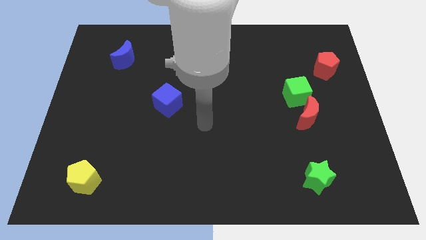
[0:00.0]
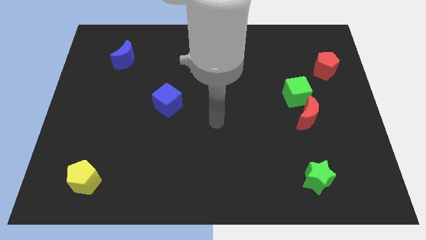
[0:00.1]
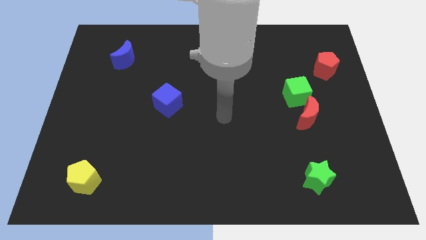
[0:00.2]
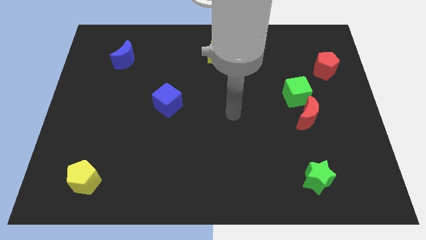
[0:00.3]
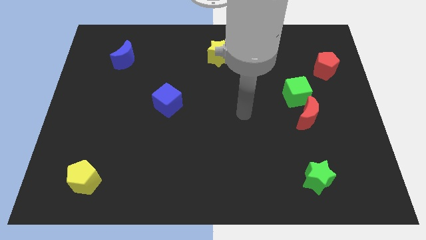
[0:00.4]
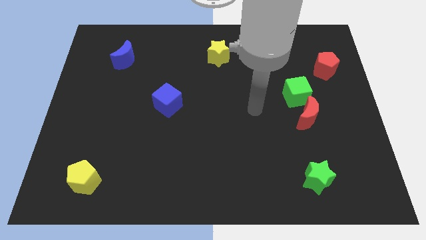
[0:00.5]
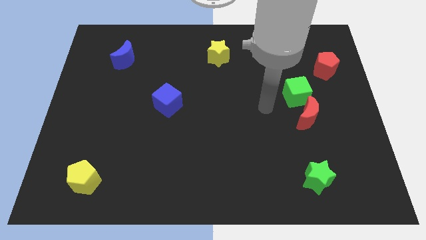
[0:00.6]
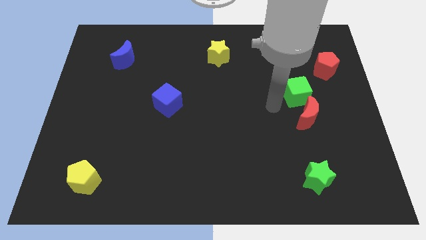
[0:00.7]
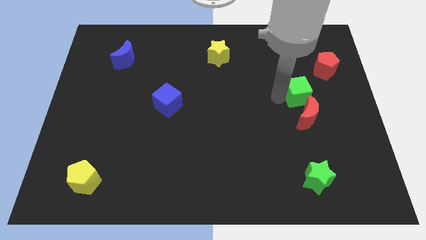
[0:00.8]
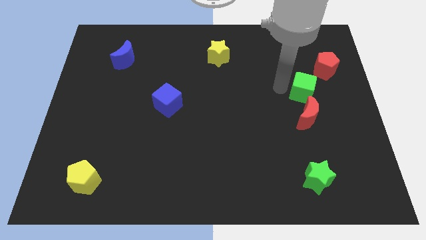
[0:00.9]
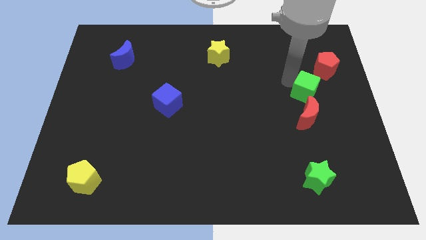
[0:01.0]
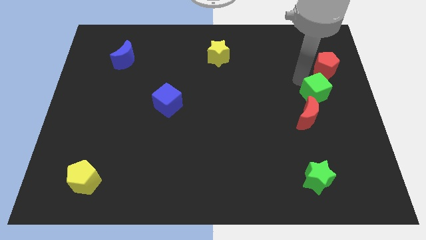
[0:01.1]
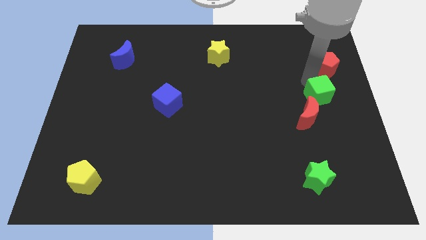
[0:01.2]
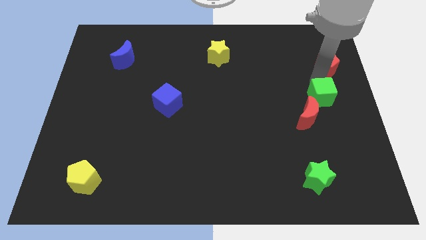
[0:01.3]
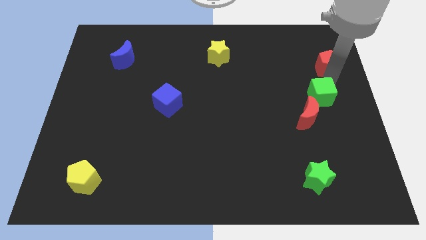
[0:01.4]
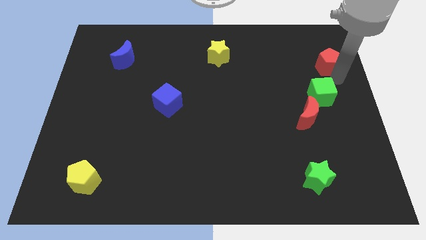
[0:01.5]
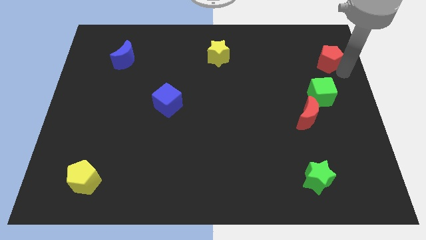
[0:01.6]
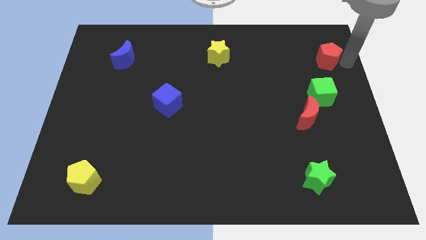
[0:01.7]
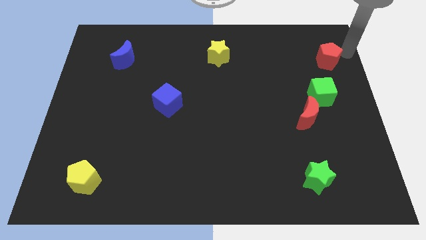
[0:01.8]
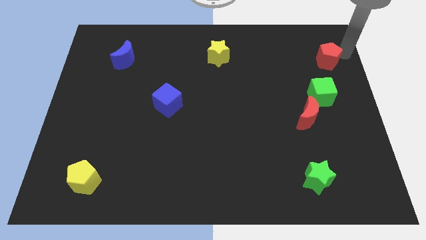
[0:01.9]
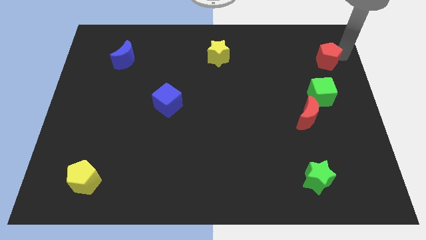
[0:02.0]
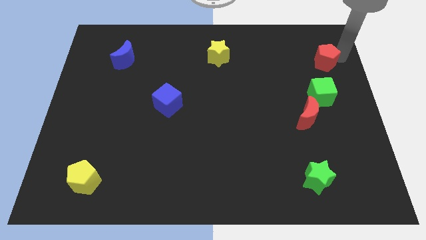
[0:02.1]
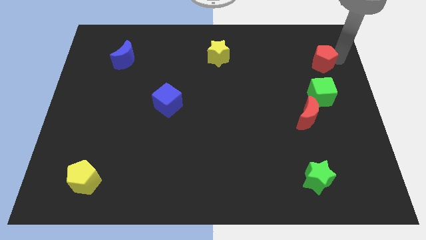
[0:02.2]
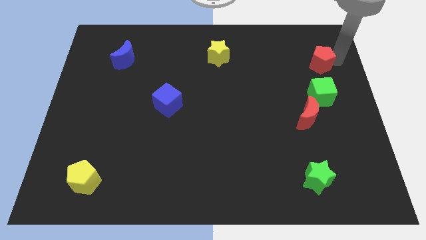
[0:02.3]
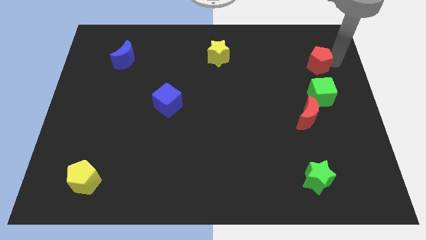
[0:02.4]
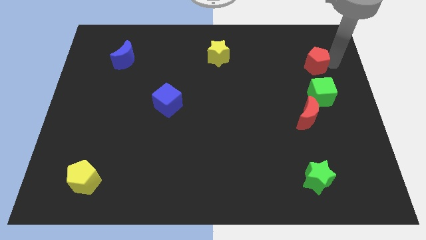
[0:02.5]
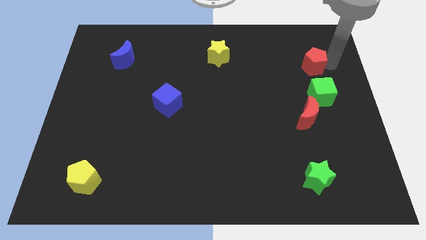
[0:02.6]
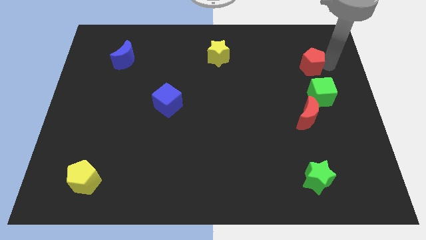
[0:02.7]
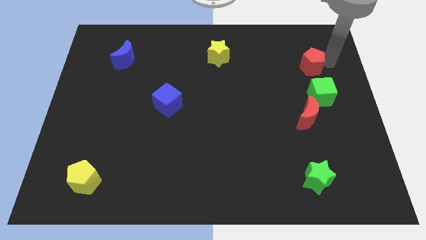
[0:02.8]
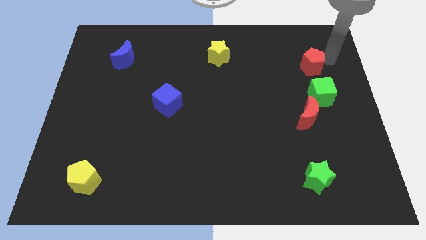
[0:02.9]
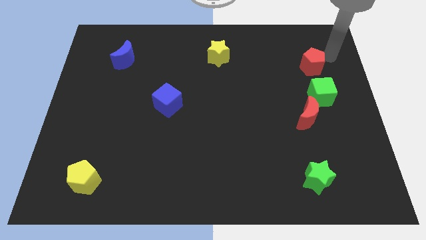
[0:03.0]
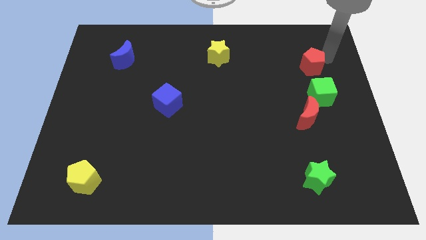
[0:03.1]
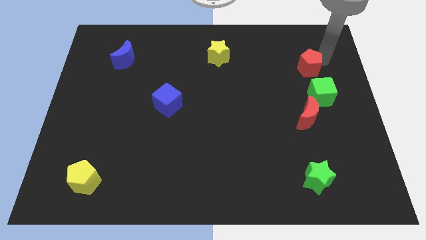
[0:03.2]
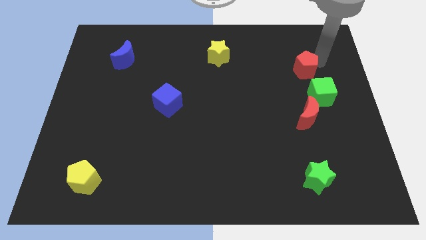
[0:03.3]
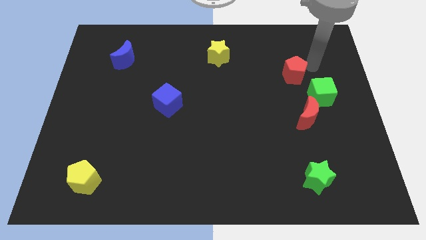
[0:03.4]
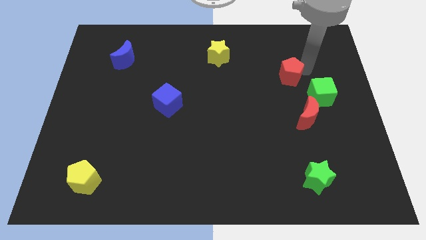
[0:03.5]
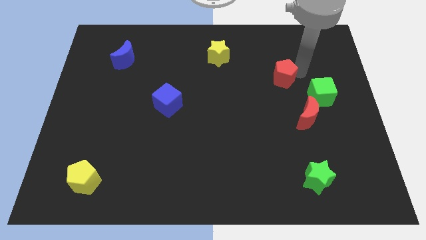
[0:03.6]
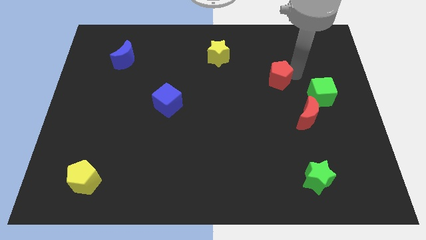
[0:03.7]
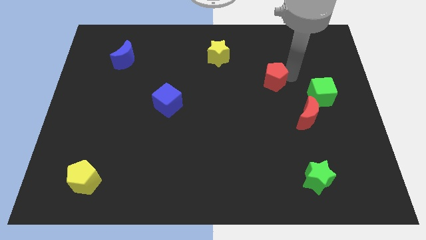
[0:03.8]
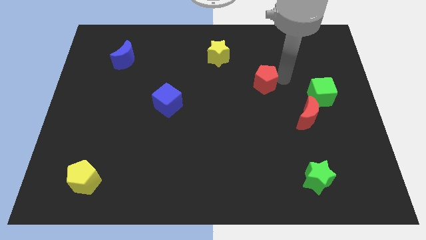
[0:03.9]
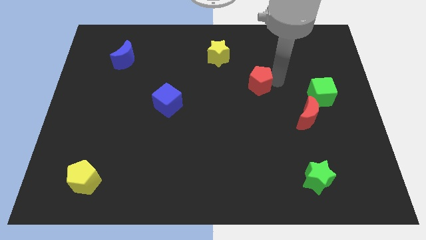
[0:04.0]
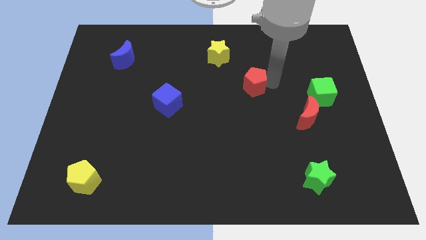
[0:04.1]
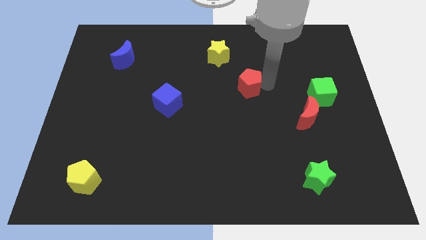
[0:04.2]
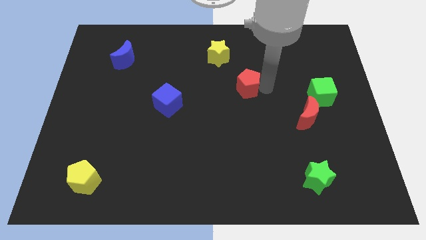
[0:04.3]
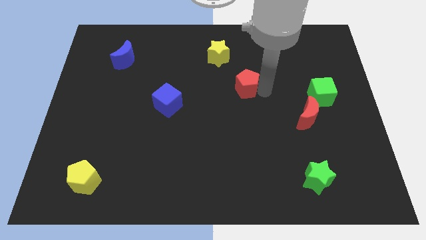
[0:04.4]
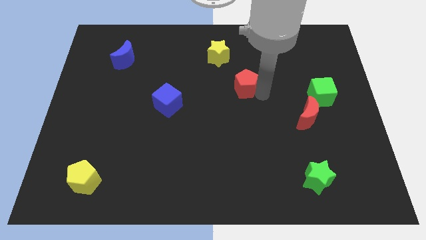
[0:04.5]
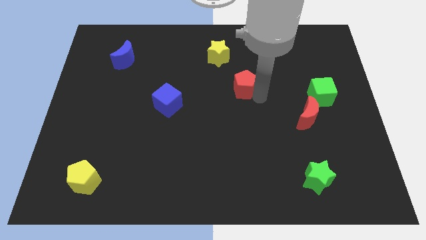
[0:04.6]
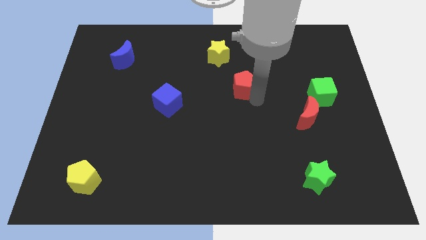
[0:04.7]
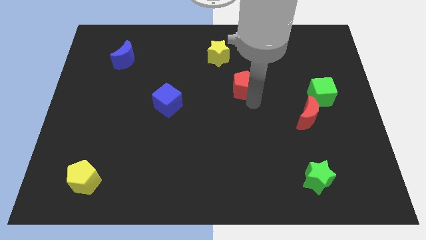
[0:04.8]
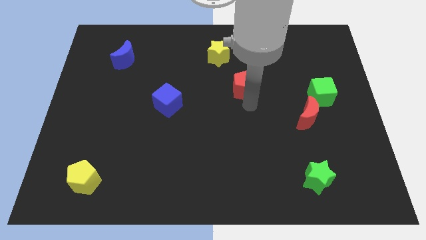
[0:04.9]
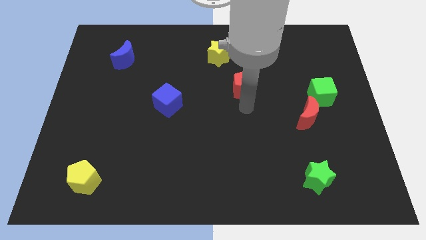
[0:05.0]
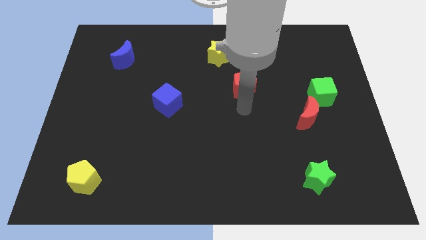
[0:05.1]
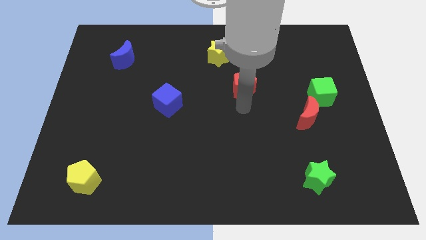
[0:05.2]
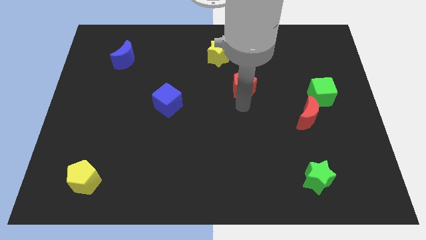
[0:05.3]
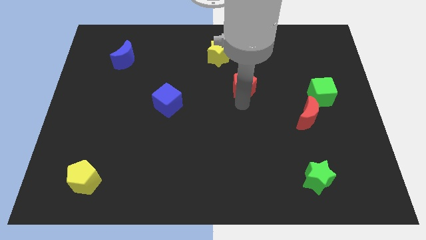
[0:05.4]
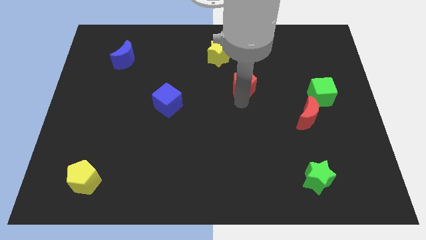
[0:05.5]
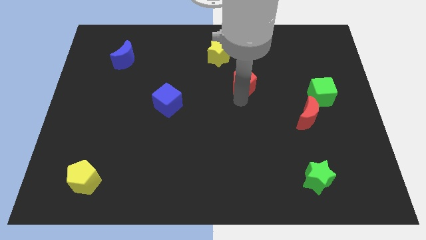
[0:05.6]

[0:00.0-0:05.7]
slide the red pentagon to the left

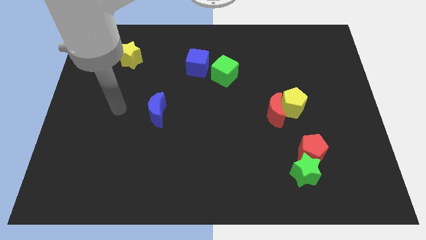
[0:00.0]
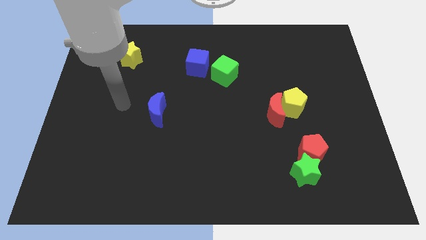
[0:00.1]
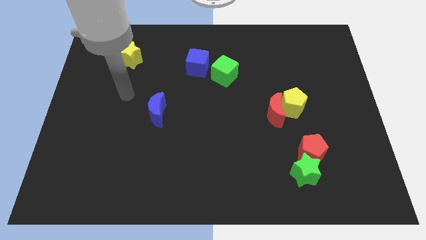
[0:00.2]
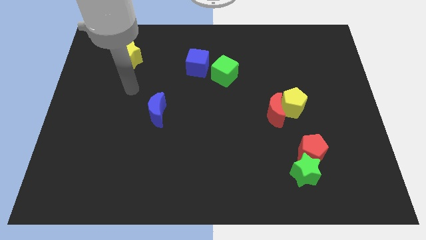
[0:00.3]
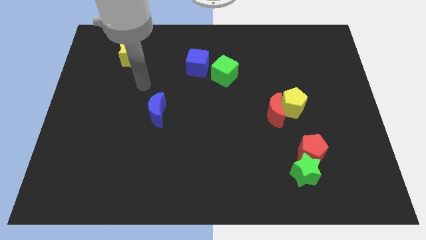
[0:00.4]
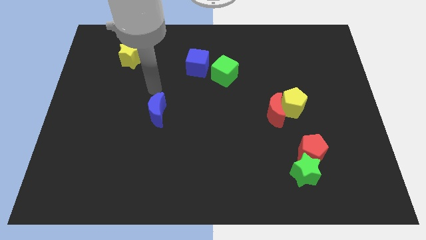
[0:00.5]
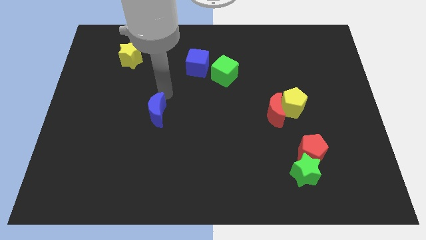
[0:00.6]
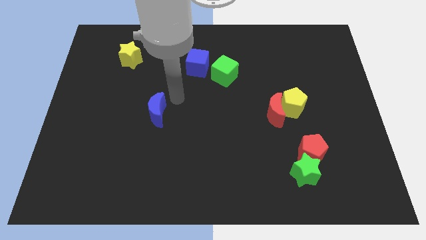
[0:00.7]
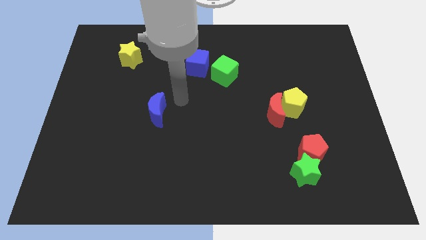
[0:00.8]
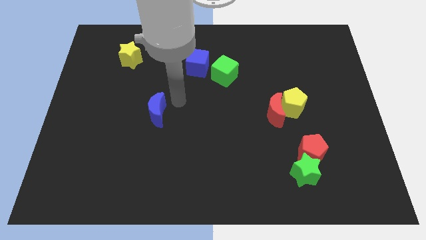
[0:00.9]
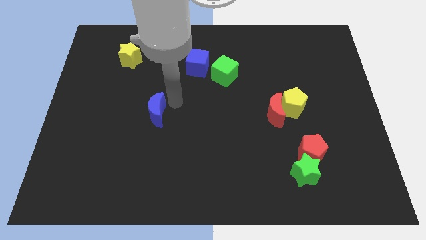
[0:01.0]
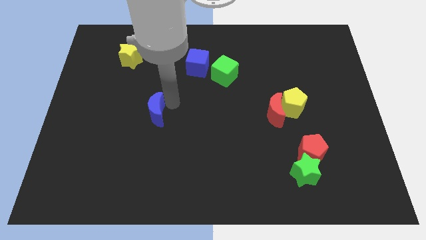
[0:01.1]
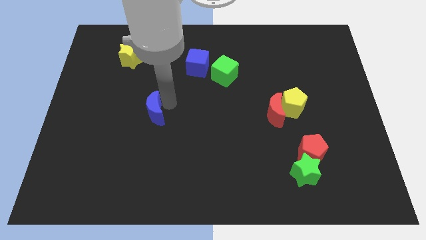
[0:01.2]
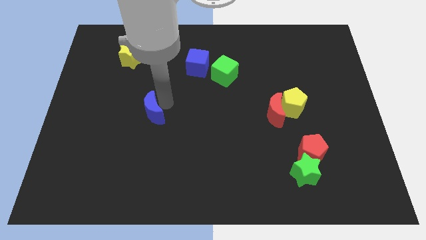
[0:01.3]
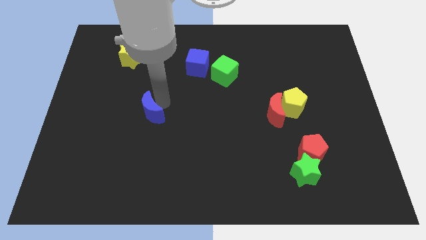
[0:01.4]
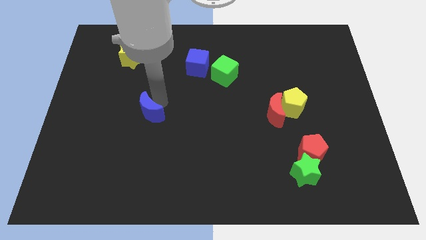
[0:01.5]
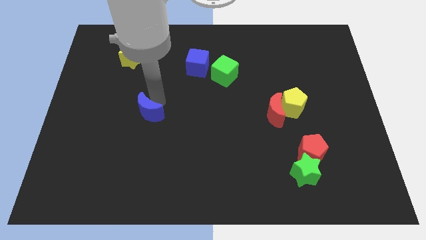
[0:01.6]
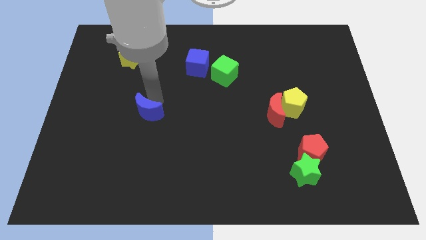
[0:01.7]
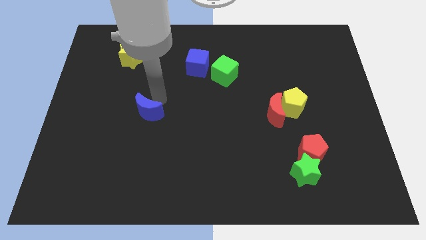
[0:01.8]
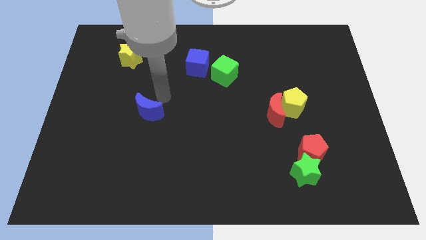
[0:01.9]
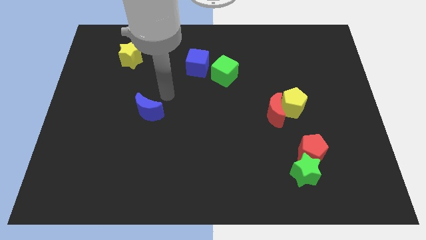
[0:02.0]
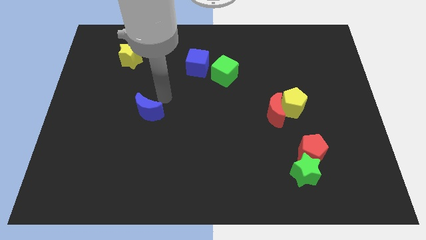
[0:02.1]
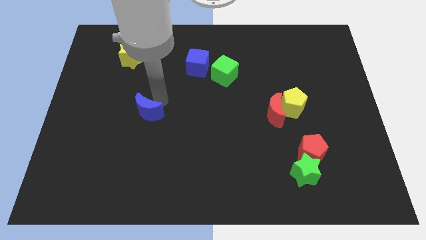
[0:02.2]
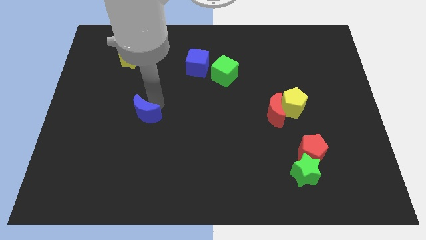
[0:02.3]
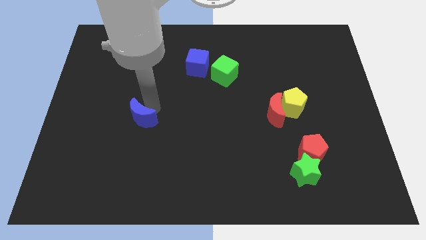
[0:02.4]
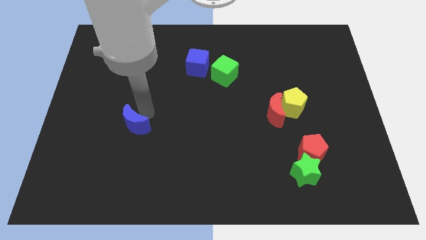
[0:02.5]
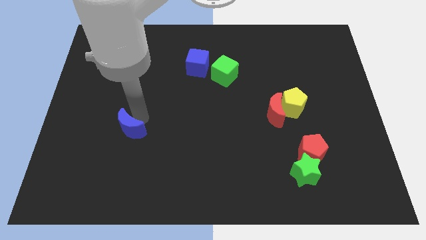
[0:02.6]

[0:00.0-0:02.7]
move the blue moon downwards and then left somewhat

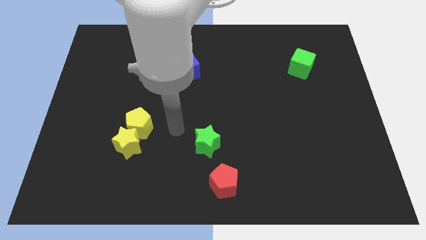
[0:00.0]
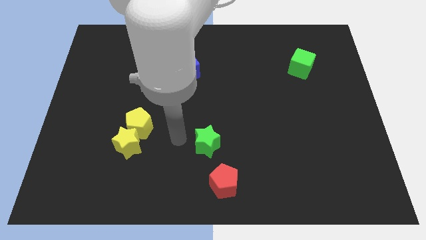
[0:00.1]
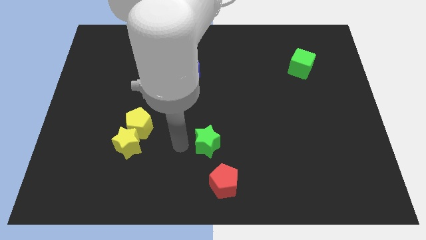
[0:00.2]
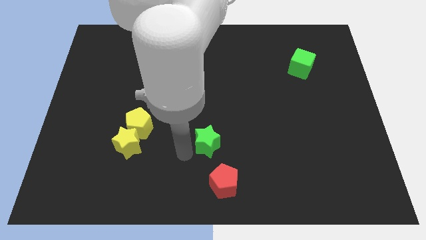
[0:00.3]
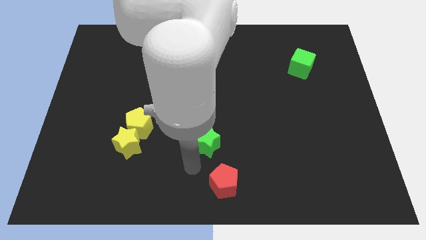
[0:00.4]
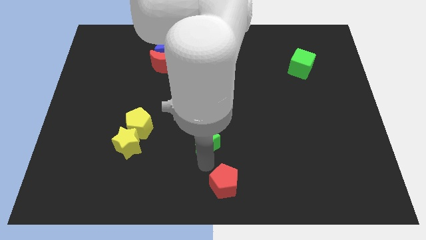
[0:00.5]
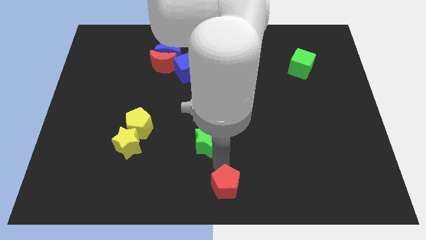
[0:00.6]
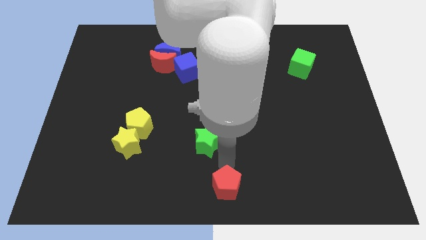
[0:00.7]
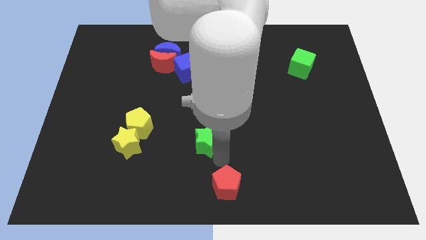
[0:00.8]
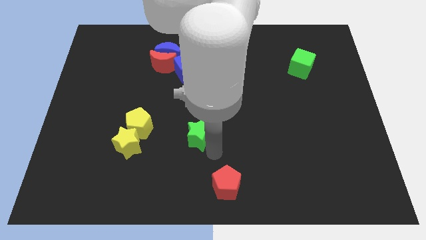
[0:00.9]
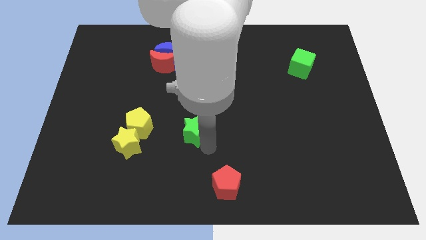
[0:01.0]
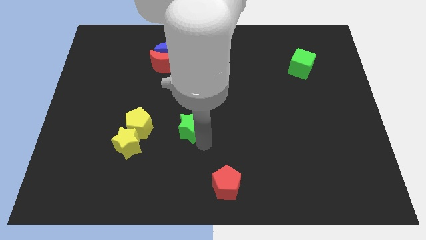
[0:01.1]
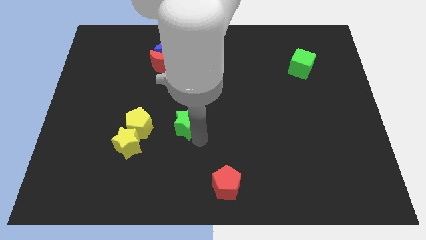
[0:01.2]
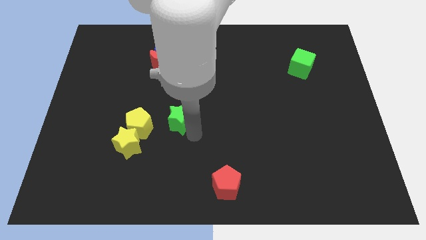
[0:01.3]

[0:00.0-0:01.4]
slightly push the green star upwards and to the left diagonally
